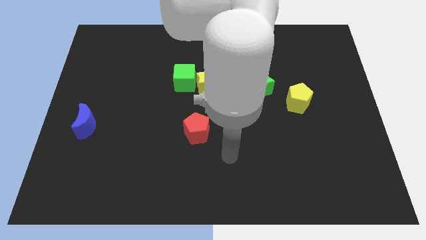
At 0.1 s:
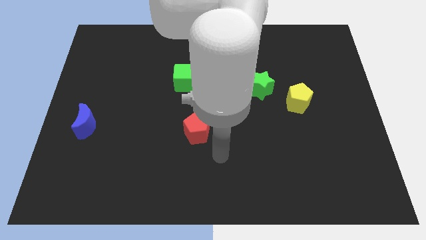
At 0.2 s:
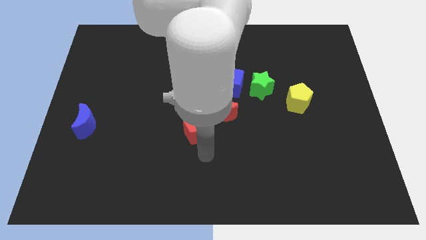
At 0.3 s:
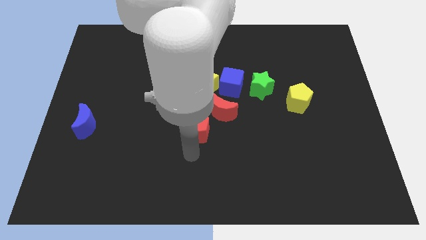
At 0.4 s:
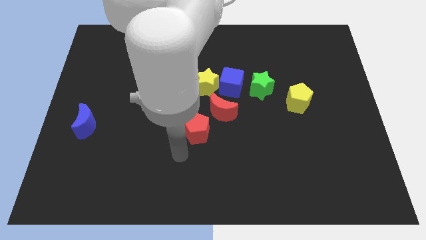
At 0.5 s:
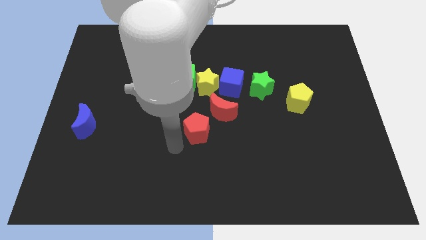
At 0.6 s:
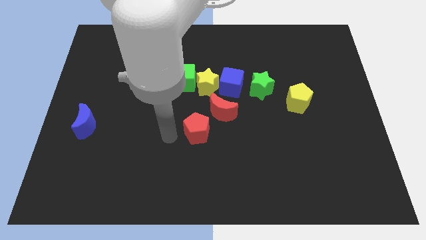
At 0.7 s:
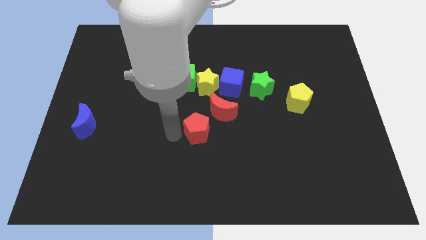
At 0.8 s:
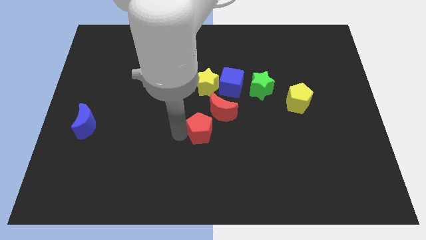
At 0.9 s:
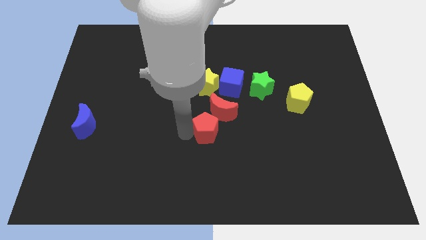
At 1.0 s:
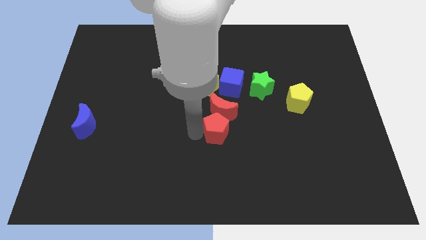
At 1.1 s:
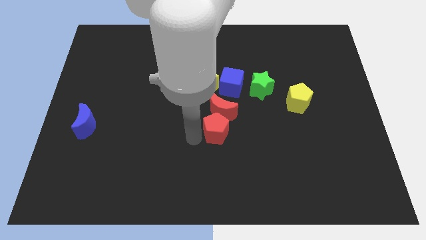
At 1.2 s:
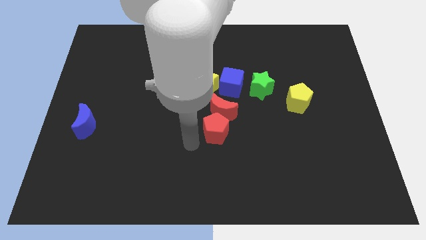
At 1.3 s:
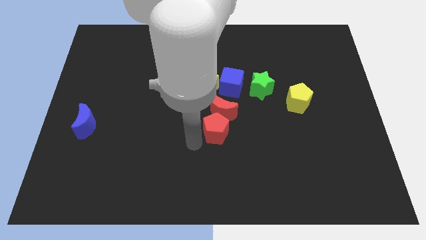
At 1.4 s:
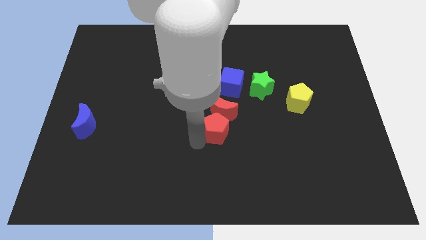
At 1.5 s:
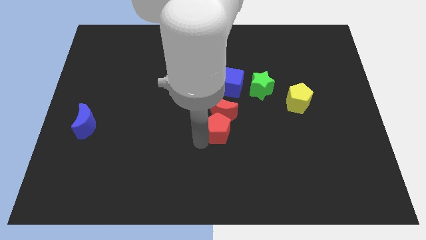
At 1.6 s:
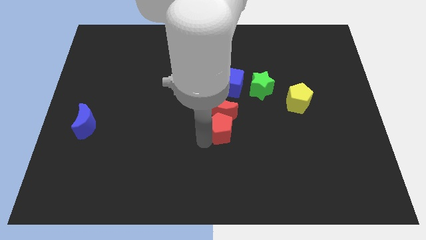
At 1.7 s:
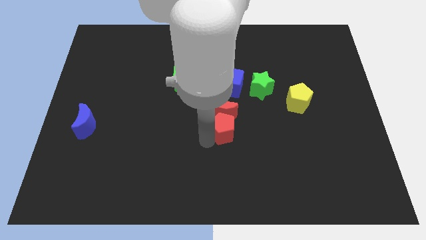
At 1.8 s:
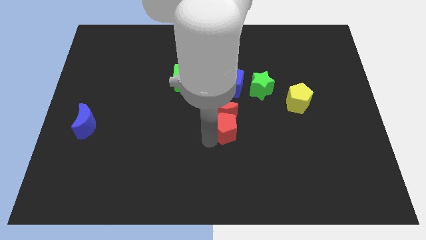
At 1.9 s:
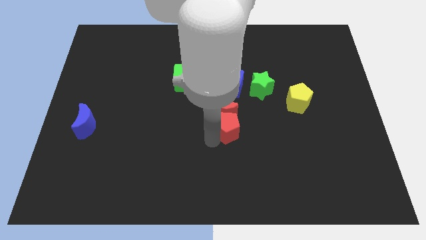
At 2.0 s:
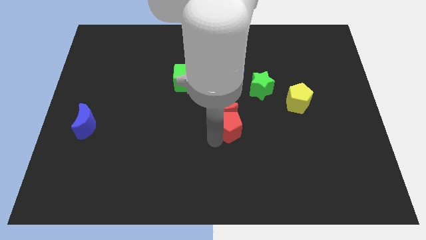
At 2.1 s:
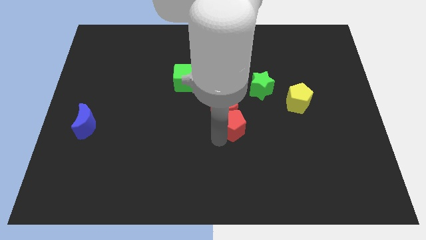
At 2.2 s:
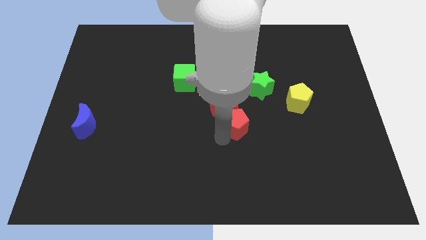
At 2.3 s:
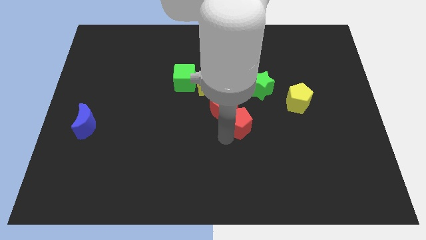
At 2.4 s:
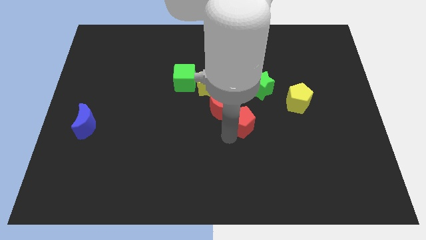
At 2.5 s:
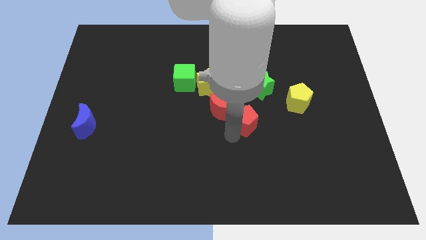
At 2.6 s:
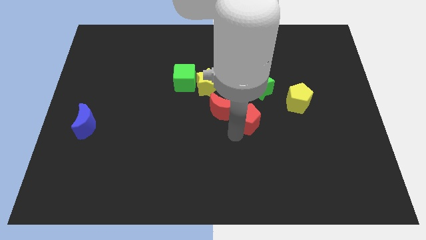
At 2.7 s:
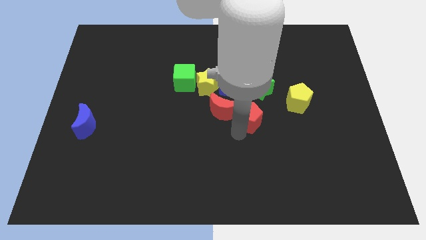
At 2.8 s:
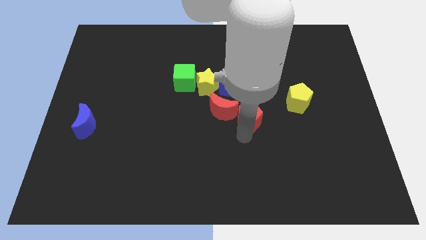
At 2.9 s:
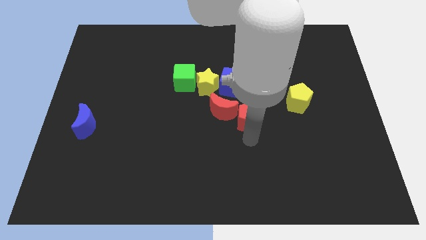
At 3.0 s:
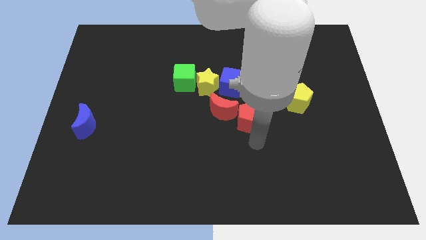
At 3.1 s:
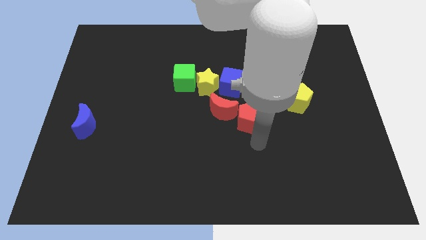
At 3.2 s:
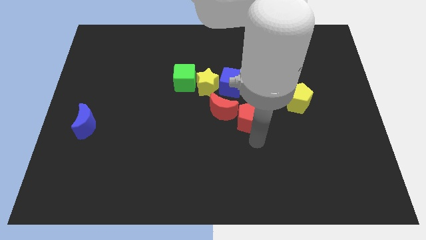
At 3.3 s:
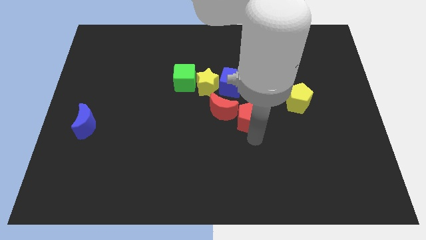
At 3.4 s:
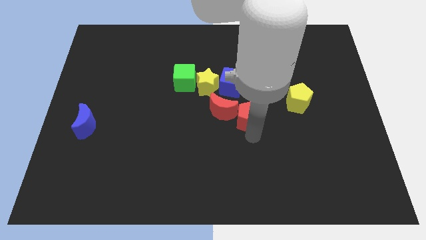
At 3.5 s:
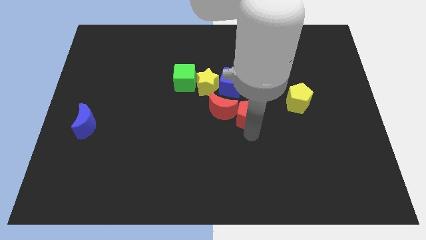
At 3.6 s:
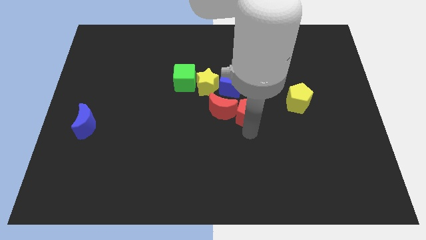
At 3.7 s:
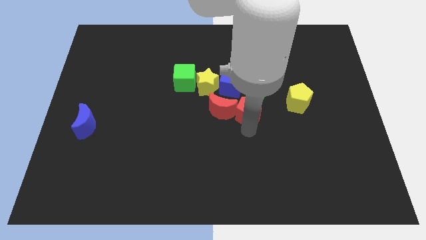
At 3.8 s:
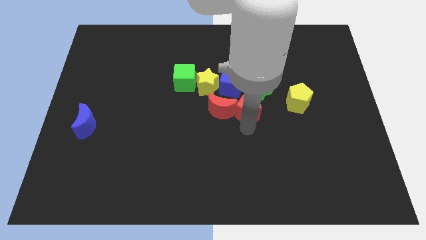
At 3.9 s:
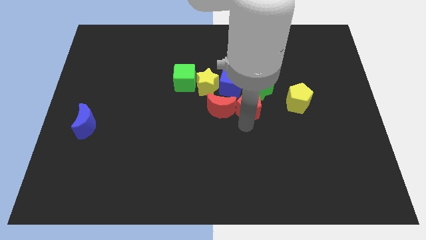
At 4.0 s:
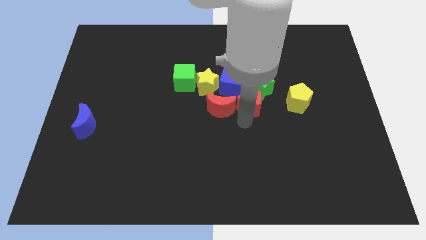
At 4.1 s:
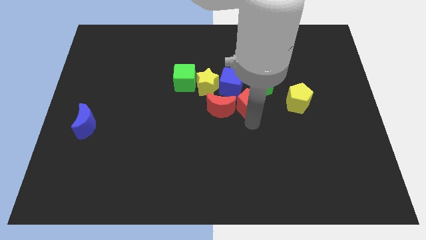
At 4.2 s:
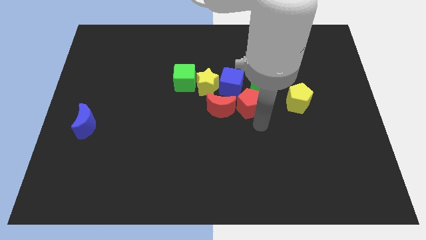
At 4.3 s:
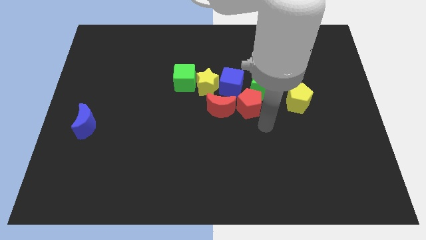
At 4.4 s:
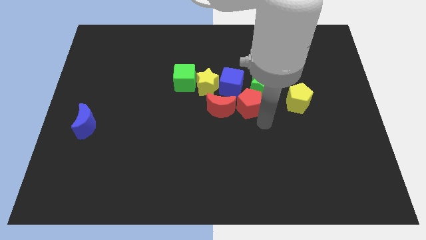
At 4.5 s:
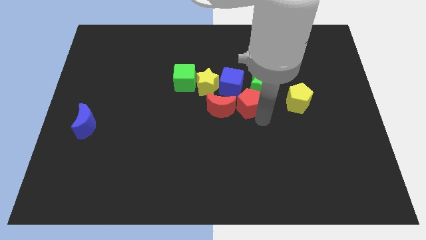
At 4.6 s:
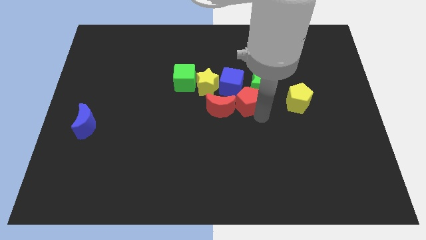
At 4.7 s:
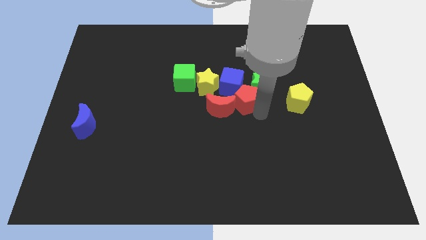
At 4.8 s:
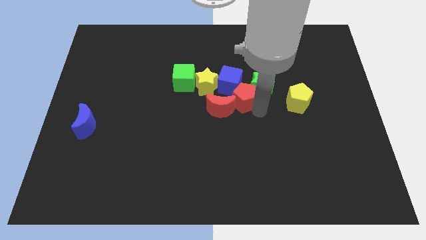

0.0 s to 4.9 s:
put the red pentagon close to the blue cube

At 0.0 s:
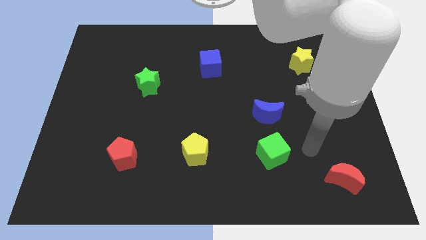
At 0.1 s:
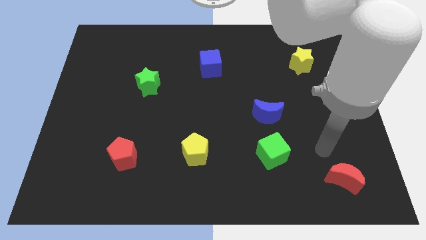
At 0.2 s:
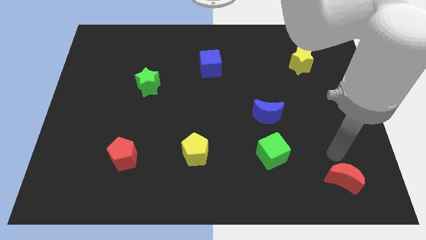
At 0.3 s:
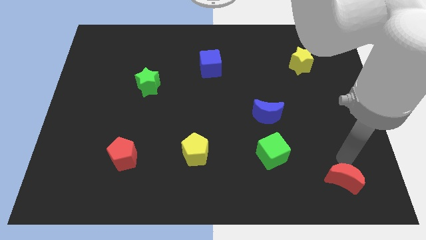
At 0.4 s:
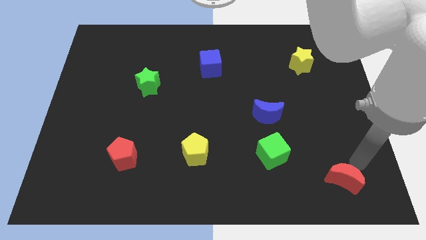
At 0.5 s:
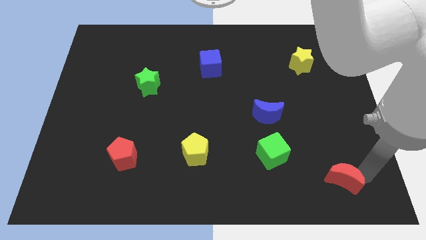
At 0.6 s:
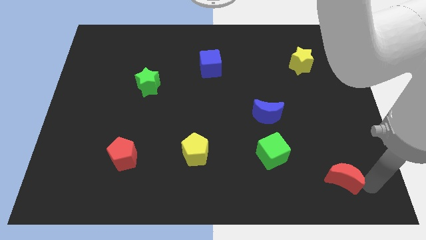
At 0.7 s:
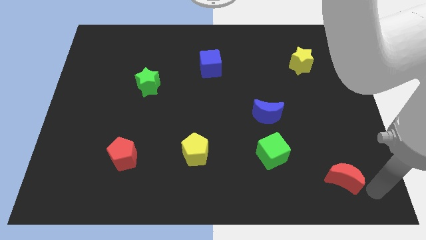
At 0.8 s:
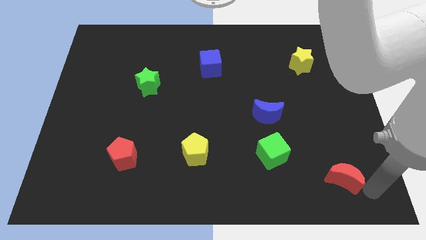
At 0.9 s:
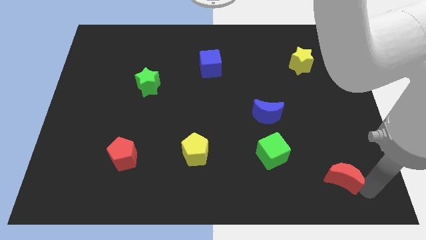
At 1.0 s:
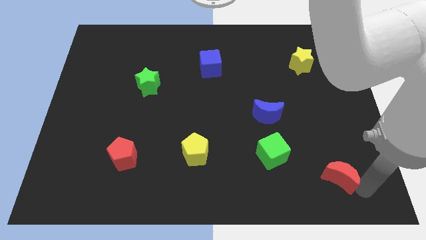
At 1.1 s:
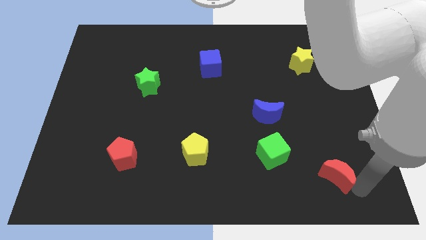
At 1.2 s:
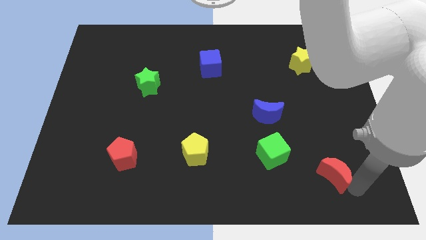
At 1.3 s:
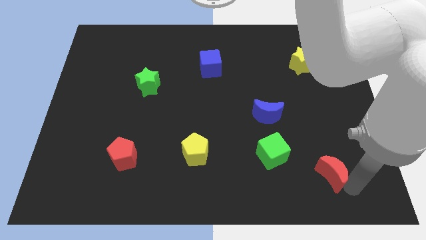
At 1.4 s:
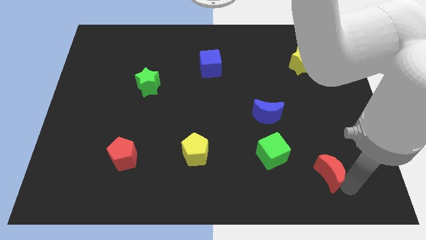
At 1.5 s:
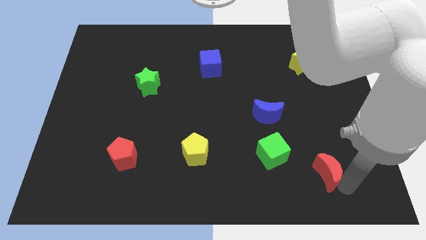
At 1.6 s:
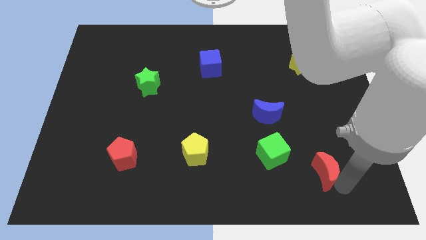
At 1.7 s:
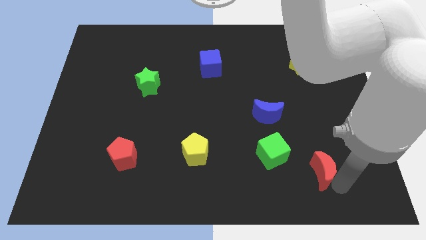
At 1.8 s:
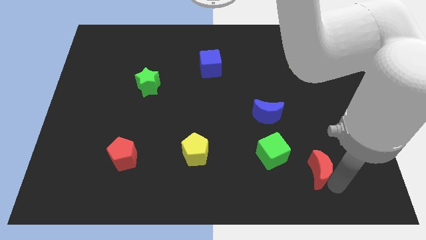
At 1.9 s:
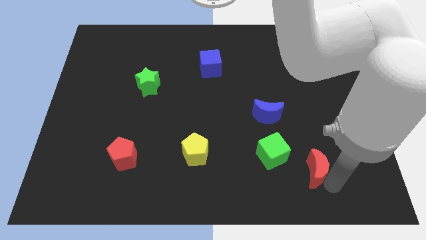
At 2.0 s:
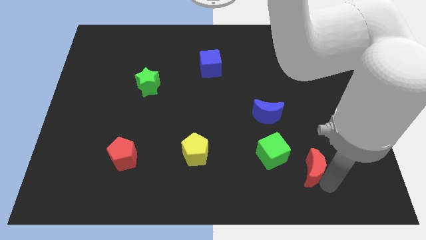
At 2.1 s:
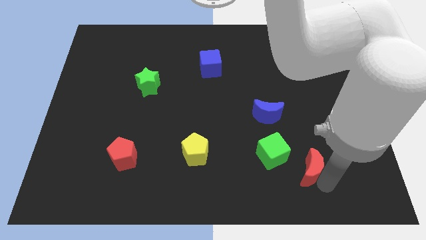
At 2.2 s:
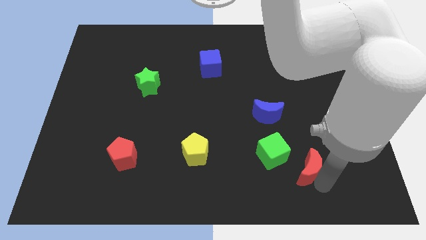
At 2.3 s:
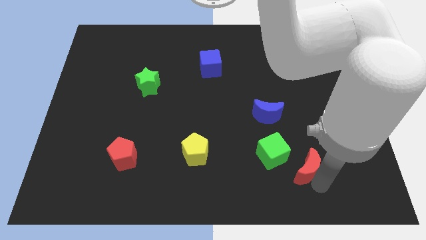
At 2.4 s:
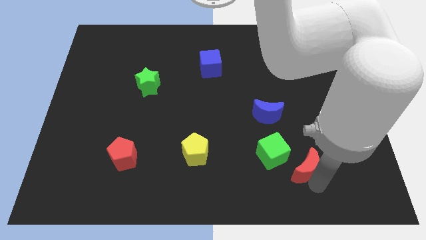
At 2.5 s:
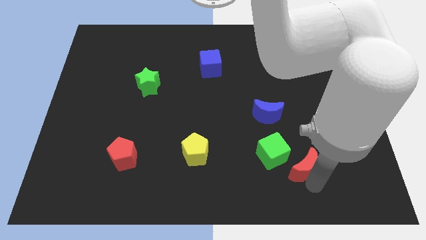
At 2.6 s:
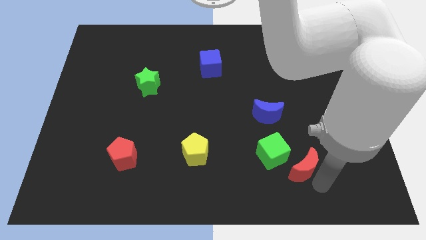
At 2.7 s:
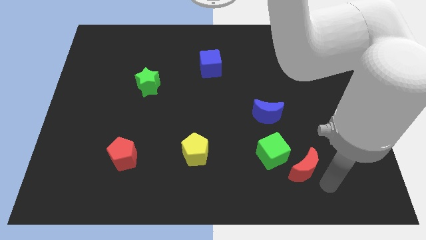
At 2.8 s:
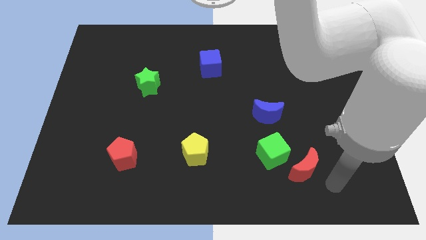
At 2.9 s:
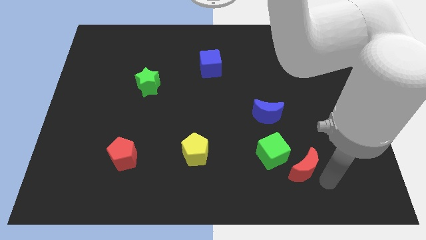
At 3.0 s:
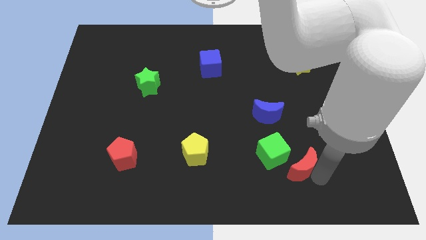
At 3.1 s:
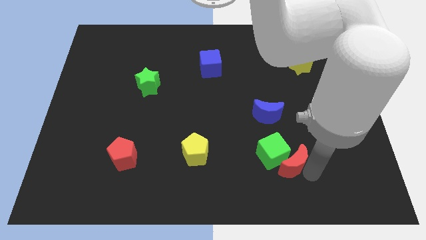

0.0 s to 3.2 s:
move the red moon to the green cube
